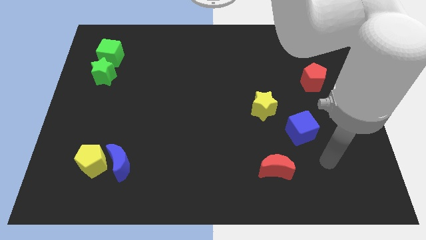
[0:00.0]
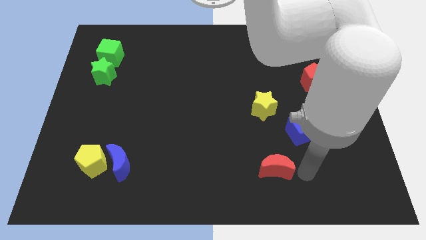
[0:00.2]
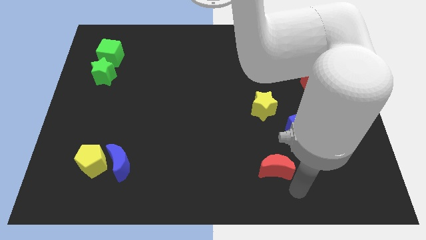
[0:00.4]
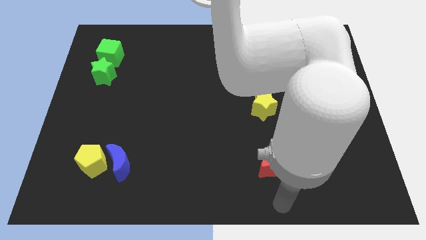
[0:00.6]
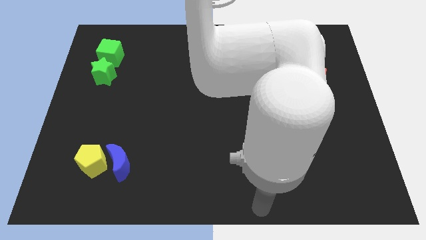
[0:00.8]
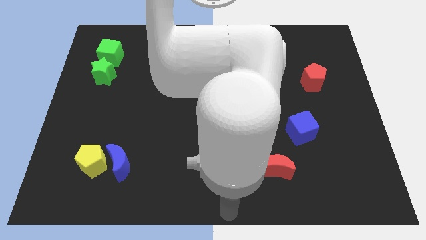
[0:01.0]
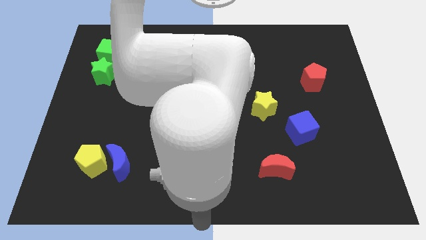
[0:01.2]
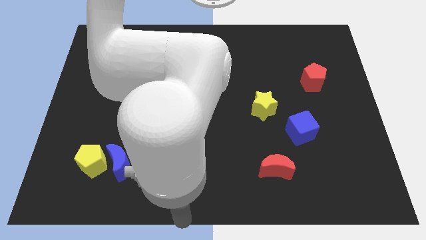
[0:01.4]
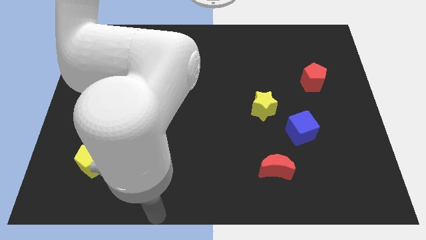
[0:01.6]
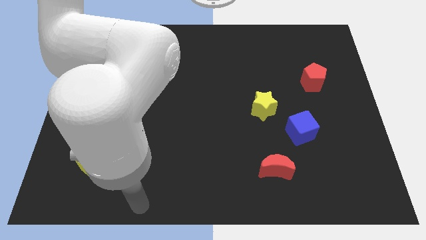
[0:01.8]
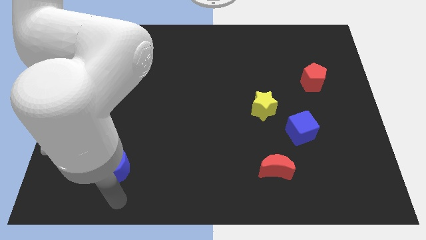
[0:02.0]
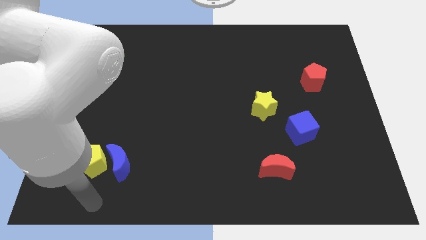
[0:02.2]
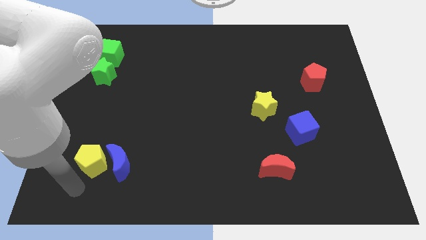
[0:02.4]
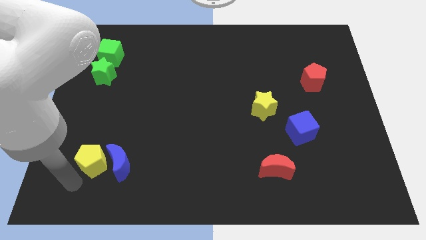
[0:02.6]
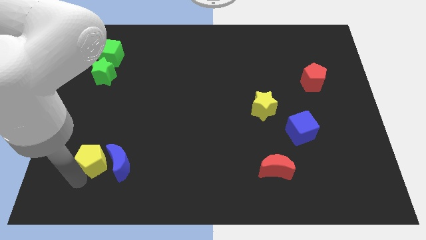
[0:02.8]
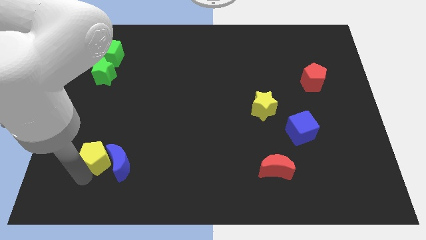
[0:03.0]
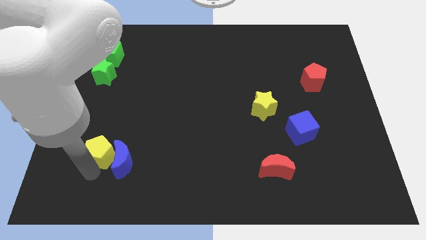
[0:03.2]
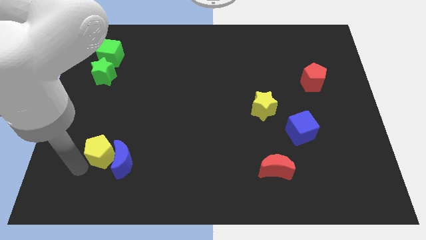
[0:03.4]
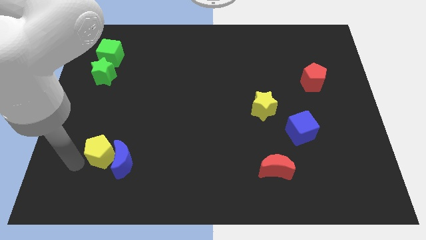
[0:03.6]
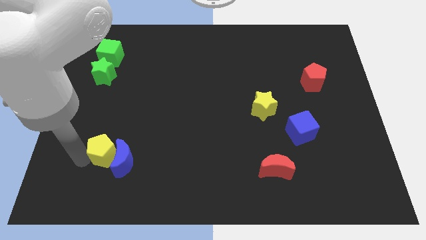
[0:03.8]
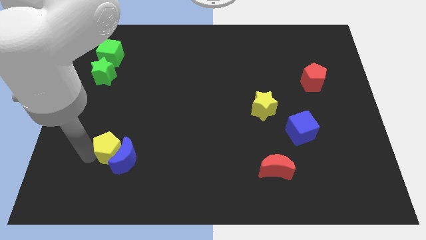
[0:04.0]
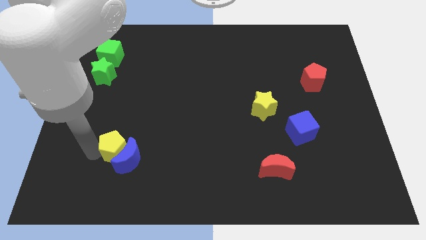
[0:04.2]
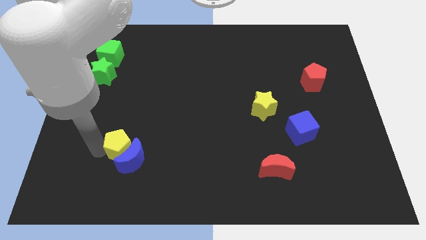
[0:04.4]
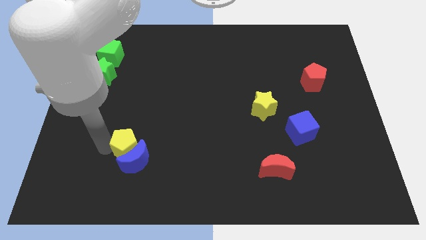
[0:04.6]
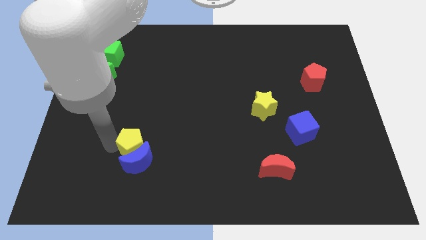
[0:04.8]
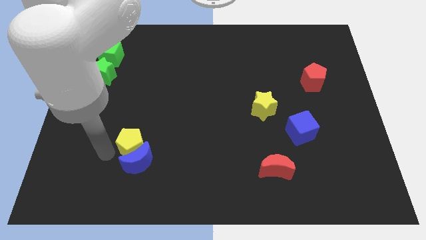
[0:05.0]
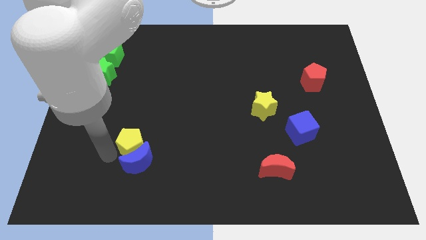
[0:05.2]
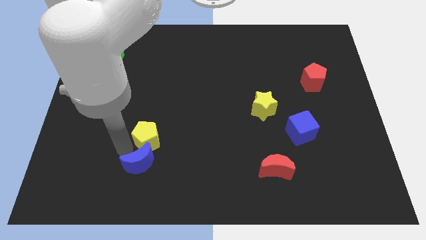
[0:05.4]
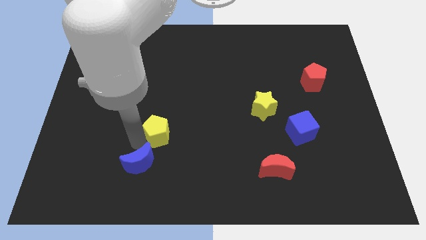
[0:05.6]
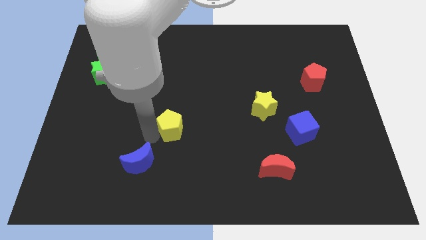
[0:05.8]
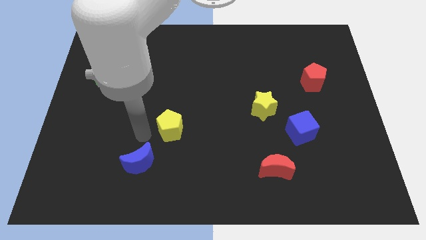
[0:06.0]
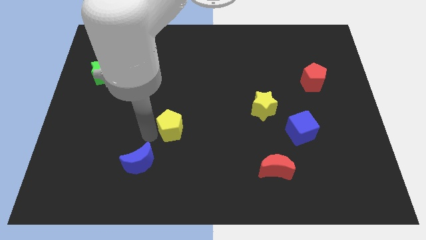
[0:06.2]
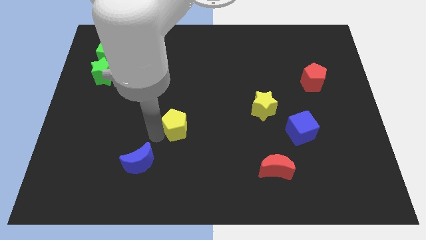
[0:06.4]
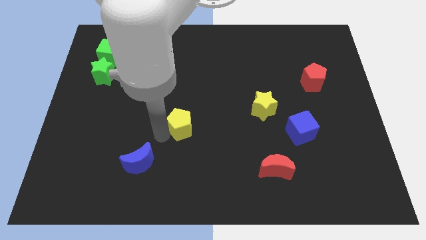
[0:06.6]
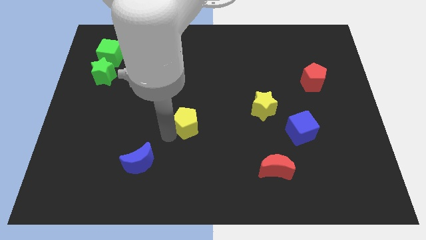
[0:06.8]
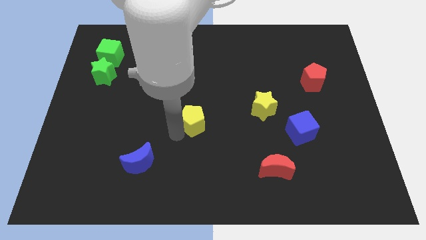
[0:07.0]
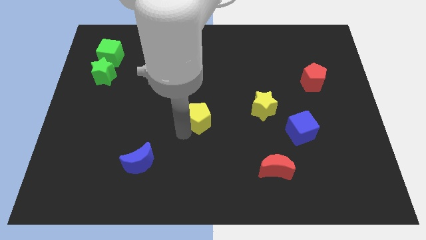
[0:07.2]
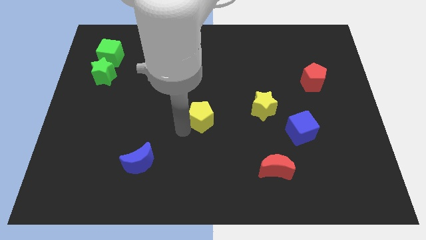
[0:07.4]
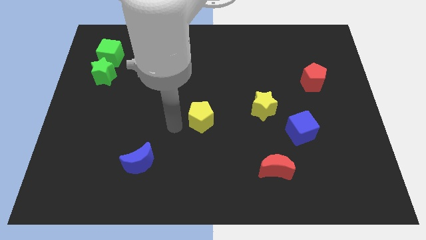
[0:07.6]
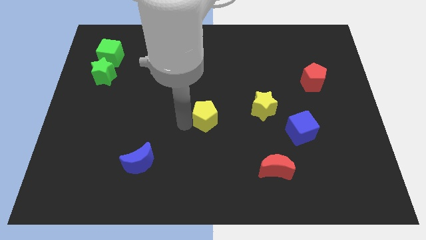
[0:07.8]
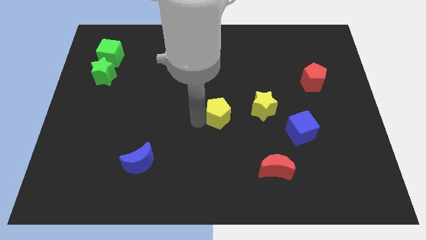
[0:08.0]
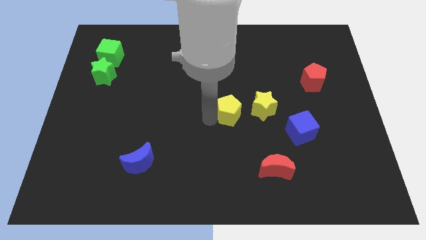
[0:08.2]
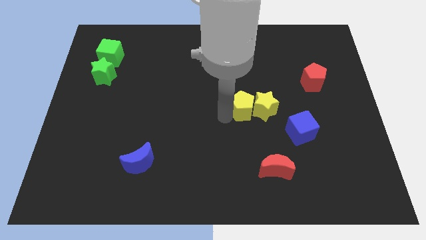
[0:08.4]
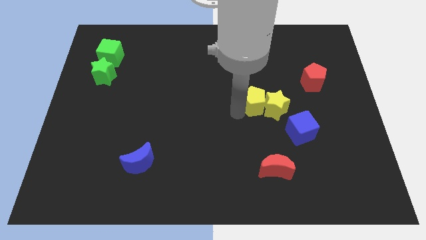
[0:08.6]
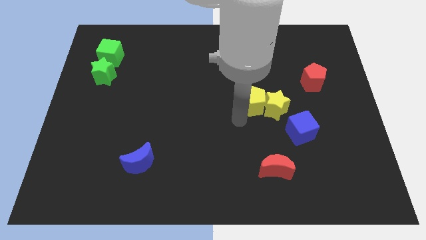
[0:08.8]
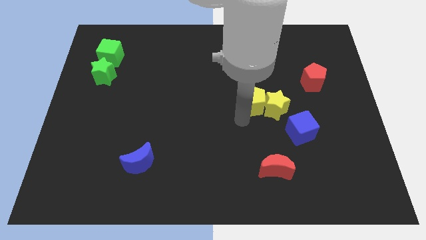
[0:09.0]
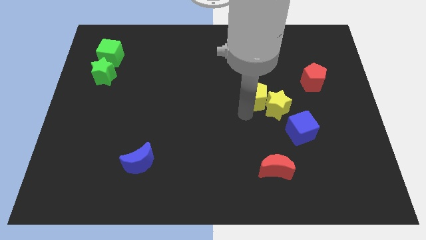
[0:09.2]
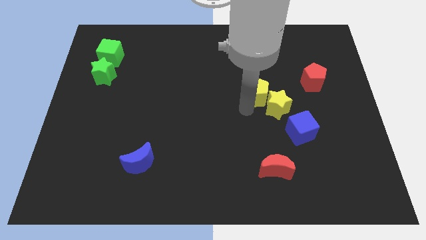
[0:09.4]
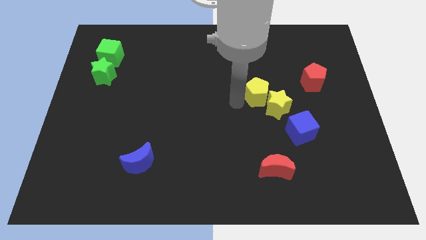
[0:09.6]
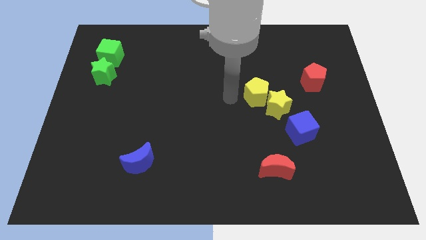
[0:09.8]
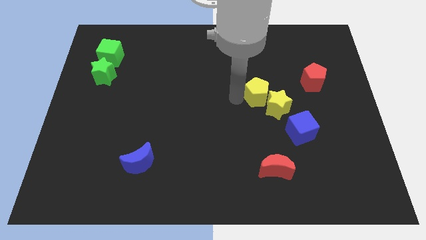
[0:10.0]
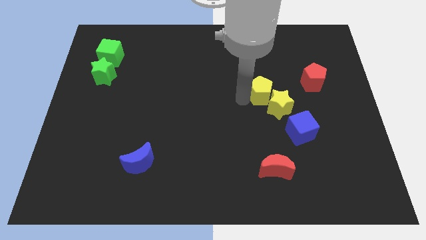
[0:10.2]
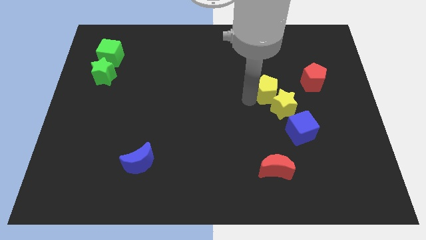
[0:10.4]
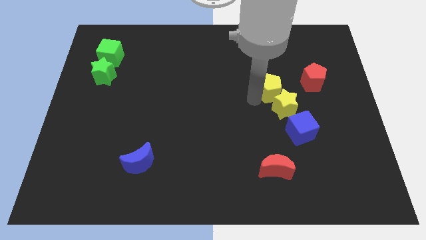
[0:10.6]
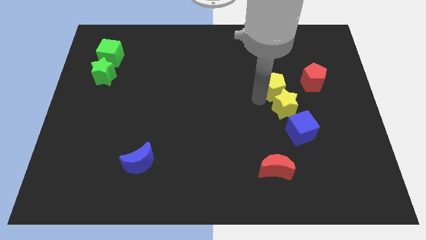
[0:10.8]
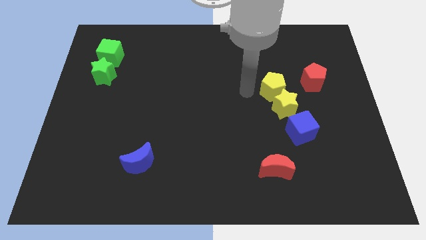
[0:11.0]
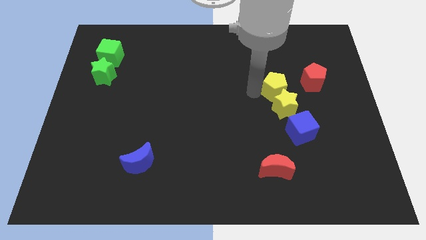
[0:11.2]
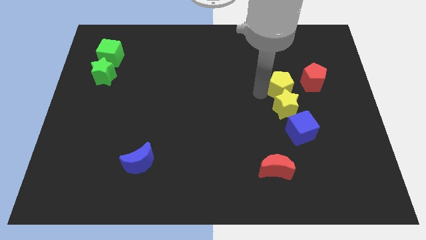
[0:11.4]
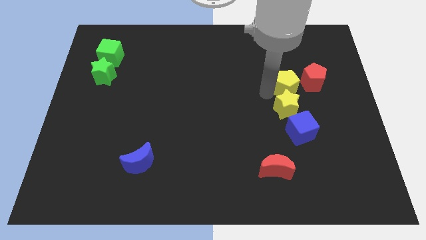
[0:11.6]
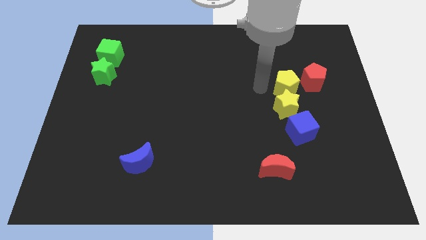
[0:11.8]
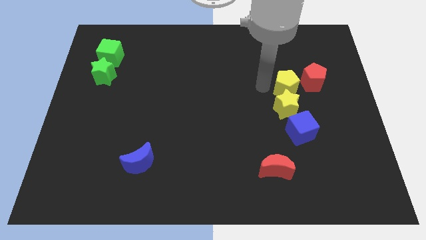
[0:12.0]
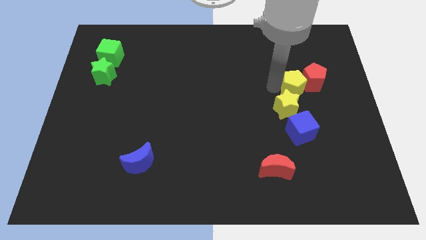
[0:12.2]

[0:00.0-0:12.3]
slide the yellow pentagon towards the red pentagon

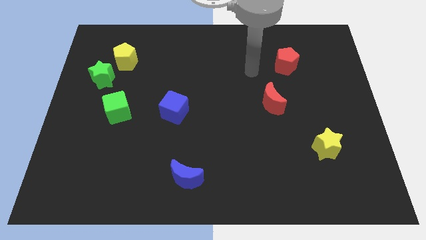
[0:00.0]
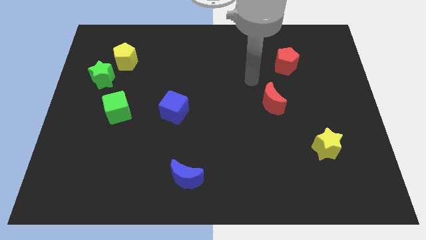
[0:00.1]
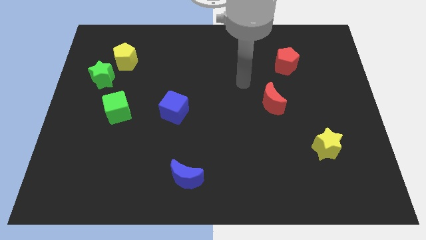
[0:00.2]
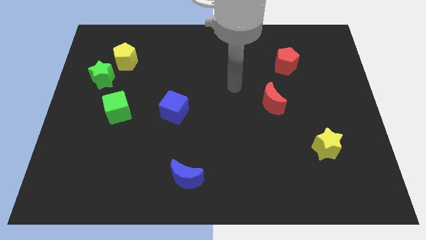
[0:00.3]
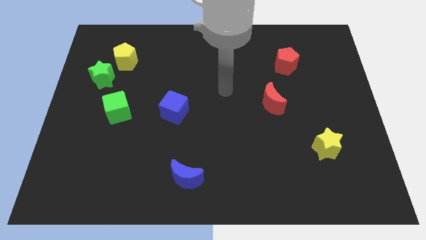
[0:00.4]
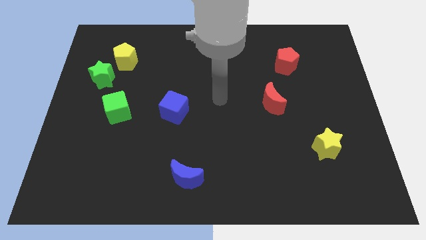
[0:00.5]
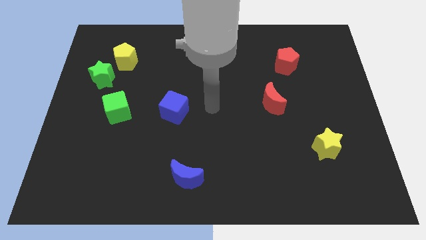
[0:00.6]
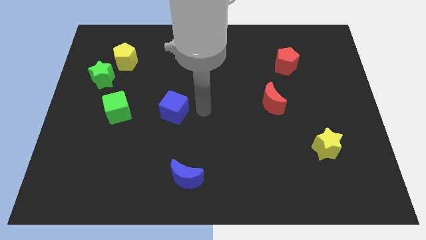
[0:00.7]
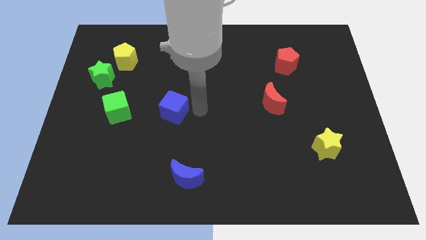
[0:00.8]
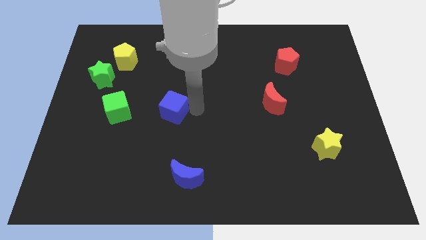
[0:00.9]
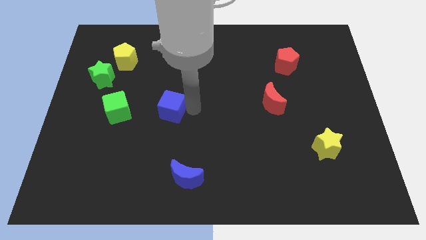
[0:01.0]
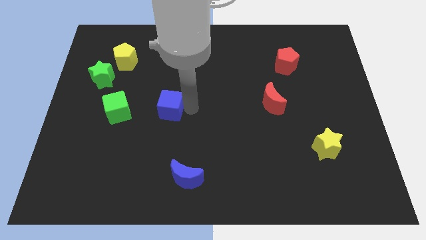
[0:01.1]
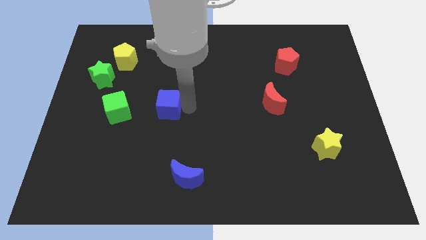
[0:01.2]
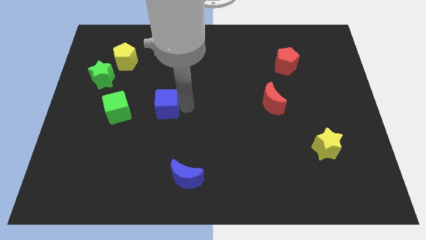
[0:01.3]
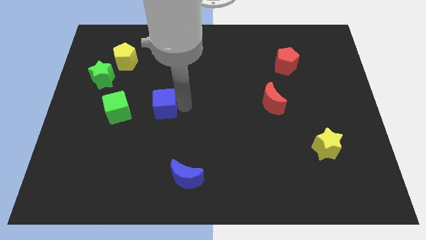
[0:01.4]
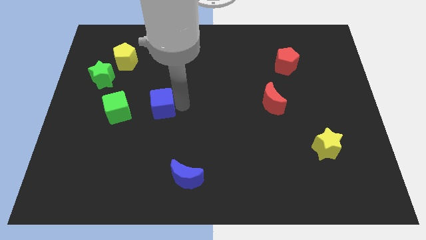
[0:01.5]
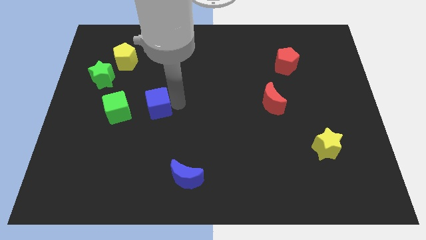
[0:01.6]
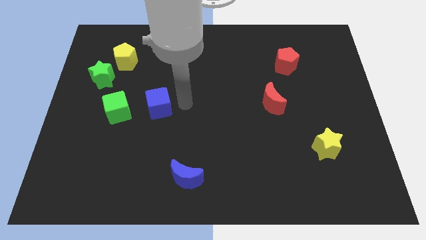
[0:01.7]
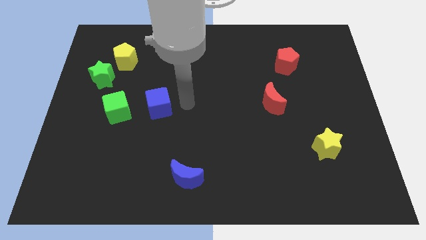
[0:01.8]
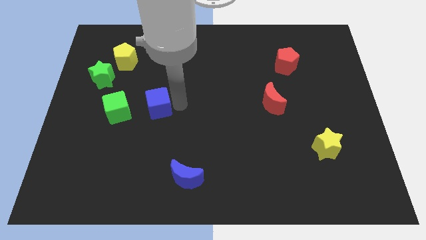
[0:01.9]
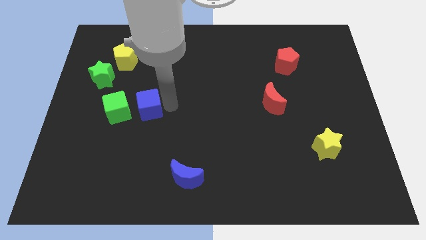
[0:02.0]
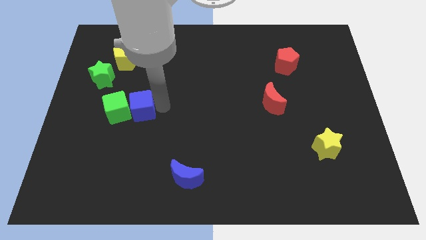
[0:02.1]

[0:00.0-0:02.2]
push the blue cube towards the green cube
